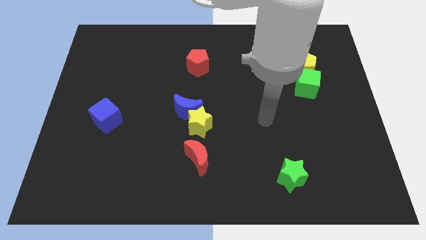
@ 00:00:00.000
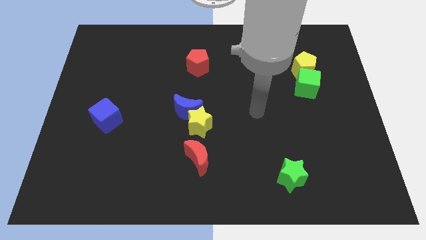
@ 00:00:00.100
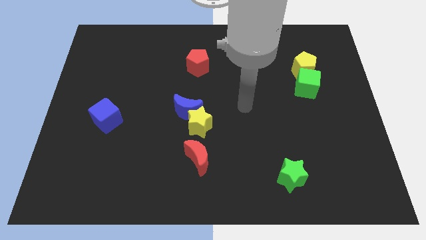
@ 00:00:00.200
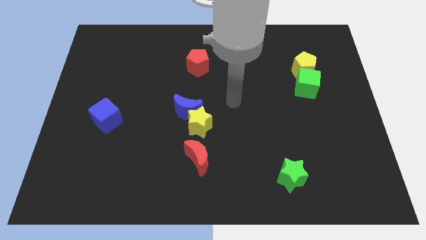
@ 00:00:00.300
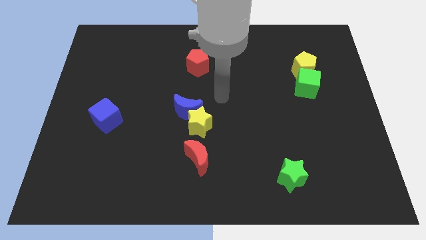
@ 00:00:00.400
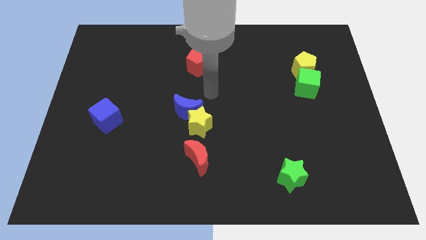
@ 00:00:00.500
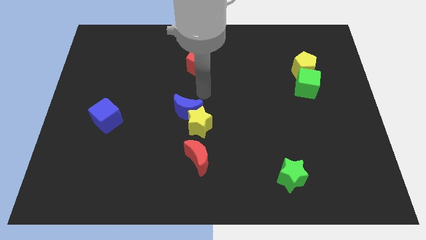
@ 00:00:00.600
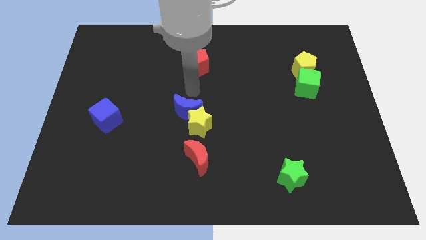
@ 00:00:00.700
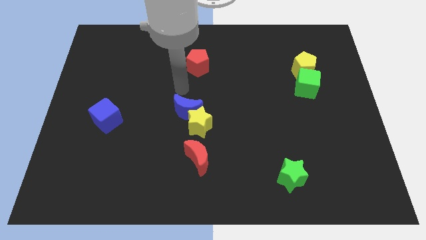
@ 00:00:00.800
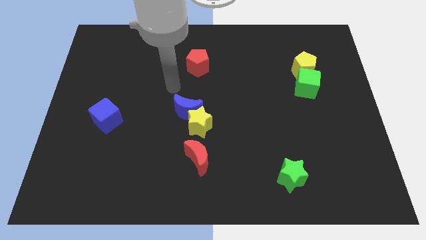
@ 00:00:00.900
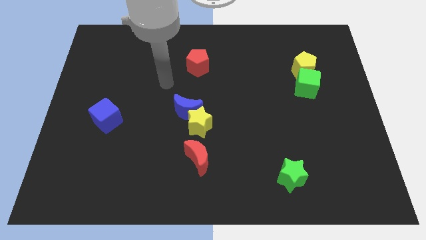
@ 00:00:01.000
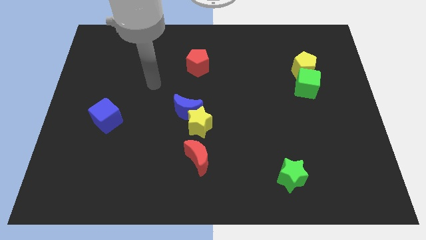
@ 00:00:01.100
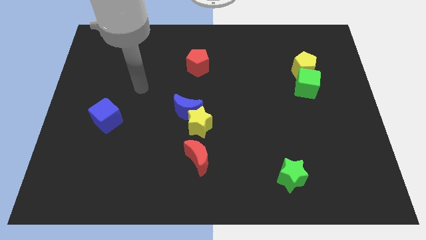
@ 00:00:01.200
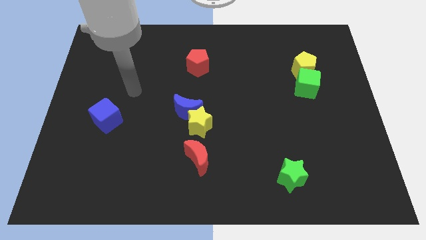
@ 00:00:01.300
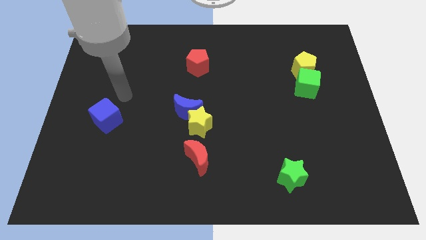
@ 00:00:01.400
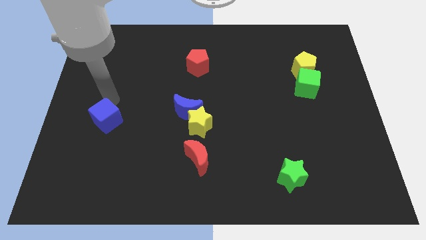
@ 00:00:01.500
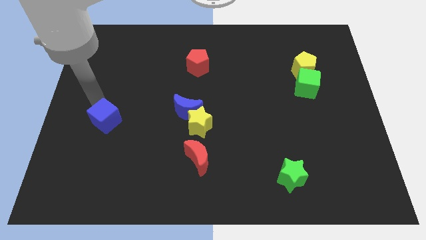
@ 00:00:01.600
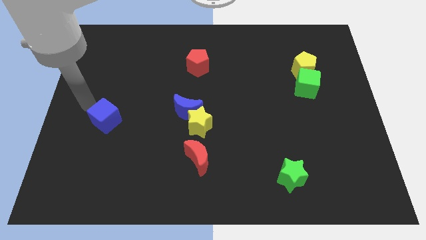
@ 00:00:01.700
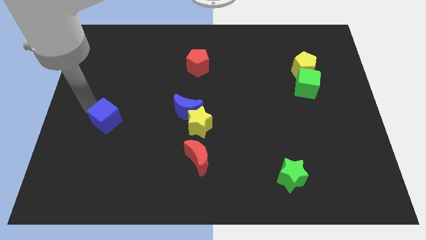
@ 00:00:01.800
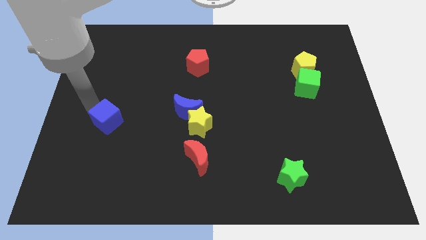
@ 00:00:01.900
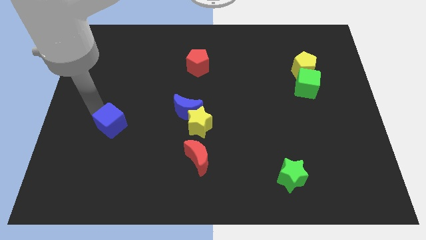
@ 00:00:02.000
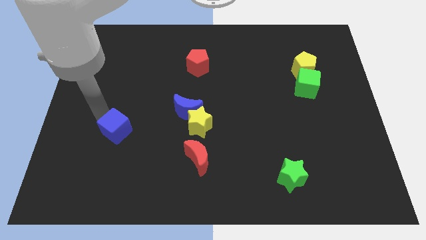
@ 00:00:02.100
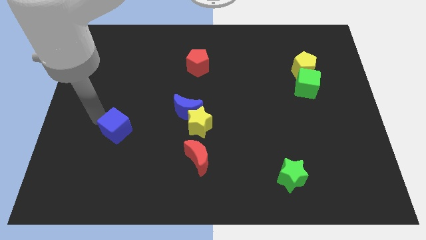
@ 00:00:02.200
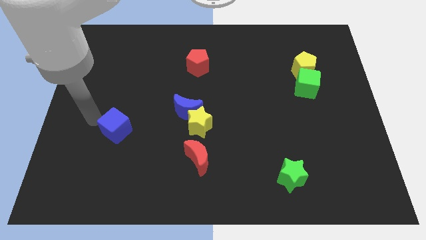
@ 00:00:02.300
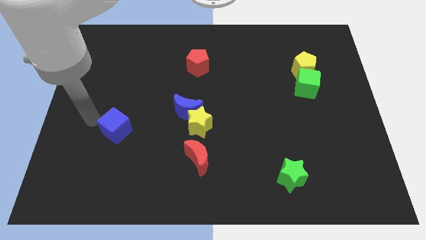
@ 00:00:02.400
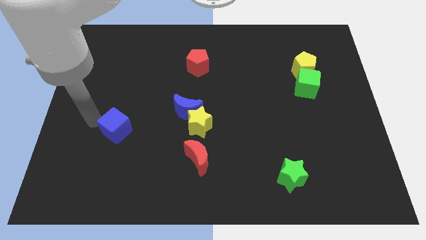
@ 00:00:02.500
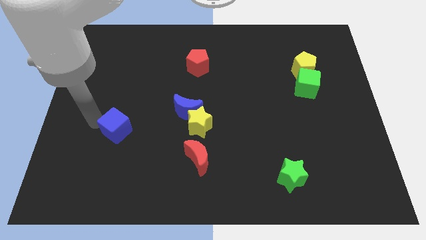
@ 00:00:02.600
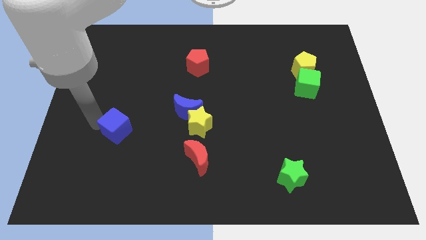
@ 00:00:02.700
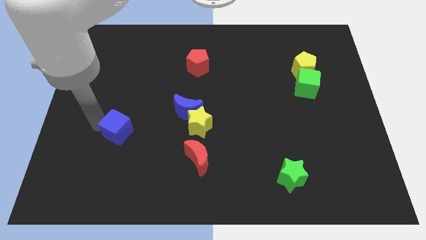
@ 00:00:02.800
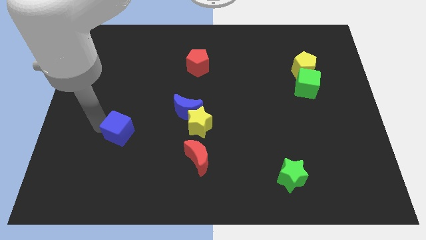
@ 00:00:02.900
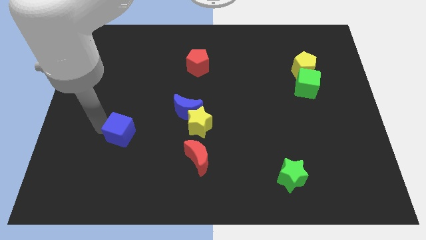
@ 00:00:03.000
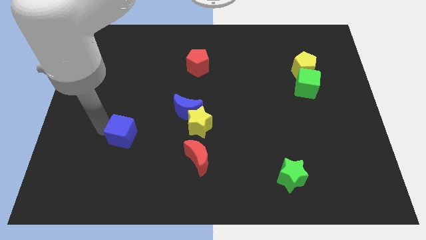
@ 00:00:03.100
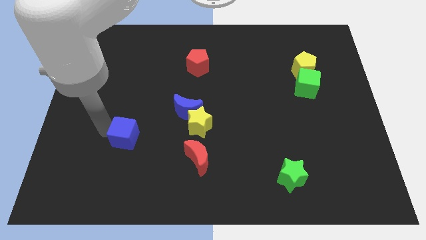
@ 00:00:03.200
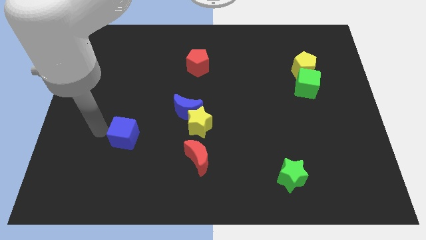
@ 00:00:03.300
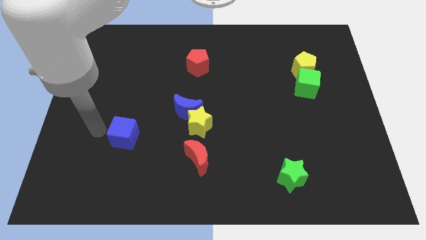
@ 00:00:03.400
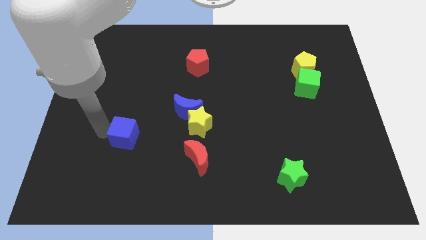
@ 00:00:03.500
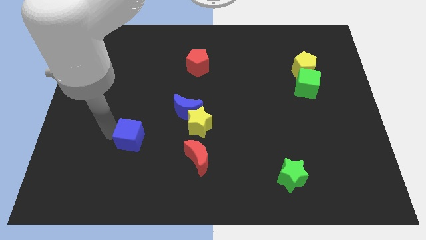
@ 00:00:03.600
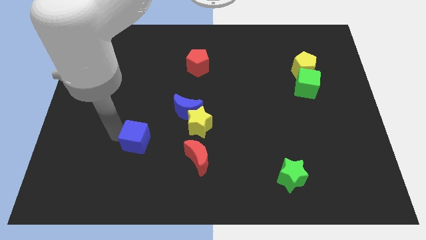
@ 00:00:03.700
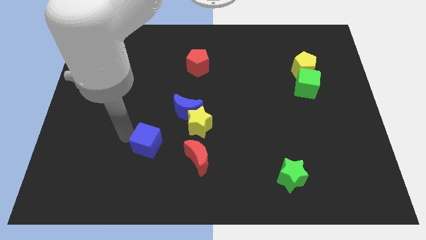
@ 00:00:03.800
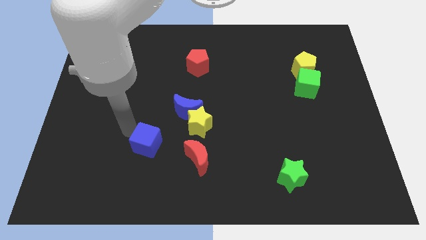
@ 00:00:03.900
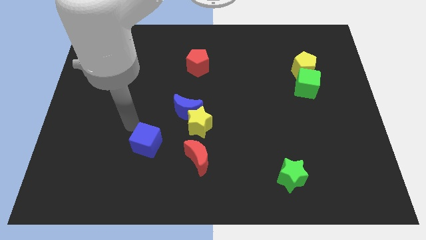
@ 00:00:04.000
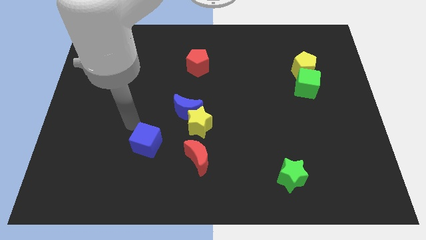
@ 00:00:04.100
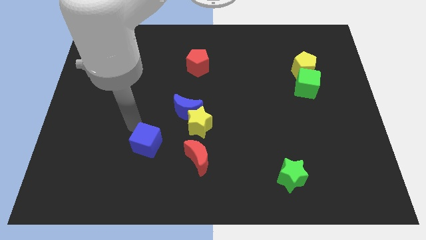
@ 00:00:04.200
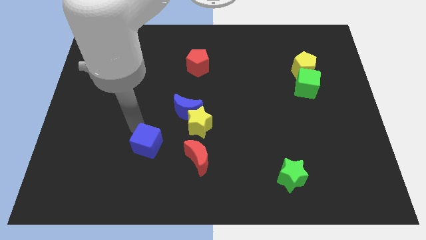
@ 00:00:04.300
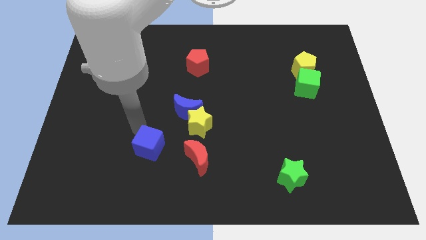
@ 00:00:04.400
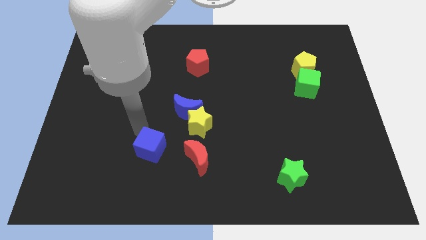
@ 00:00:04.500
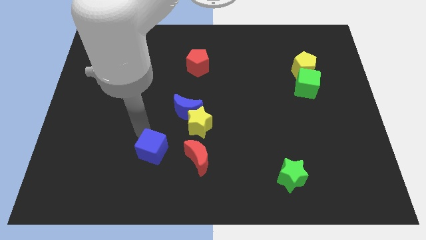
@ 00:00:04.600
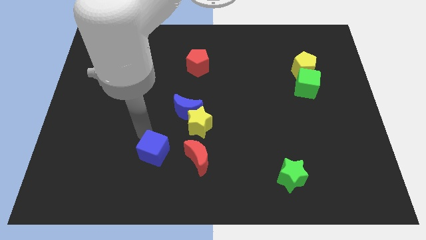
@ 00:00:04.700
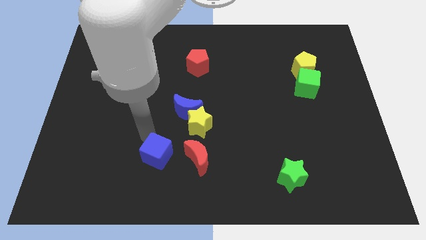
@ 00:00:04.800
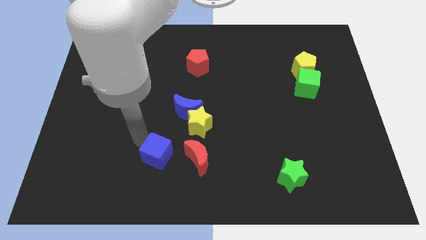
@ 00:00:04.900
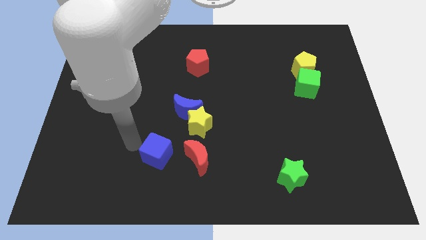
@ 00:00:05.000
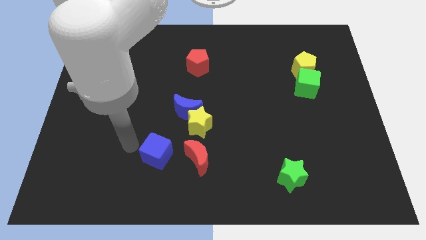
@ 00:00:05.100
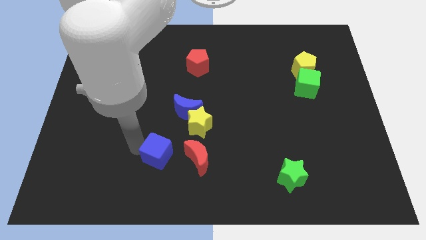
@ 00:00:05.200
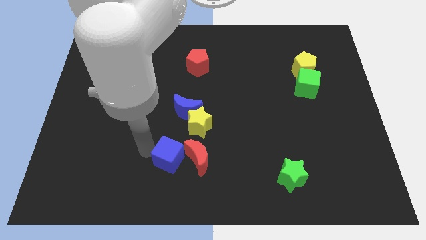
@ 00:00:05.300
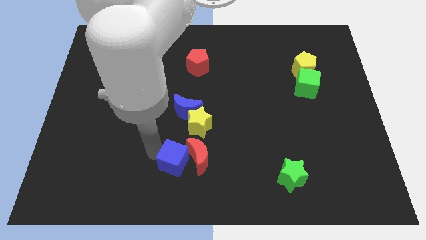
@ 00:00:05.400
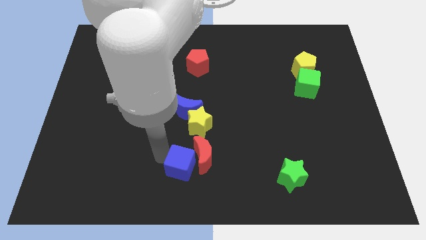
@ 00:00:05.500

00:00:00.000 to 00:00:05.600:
move the blue cube to the bottom of the yellow star

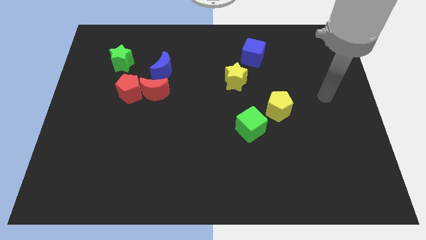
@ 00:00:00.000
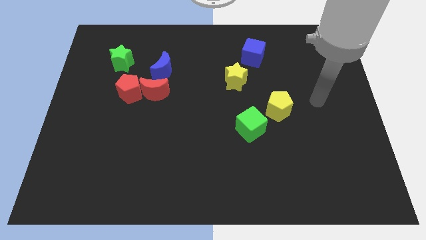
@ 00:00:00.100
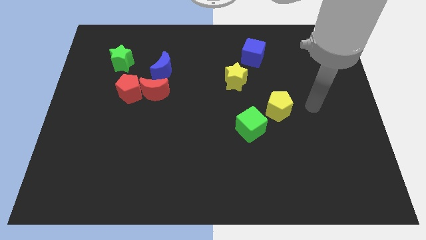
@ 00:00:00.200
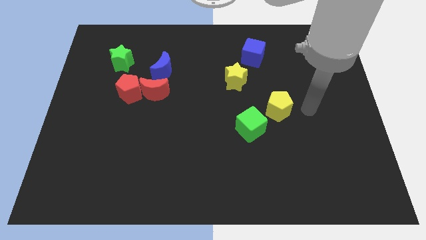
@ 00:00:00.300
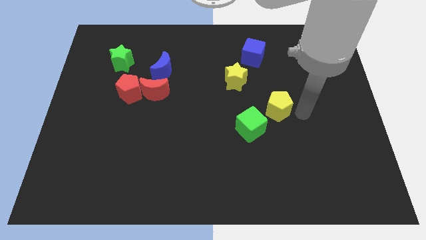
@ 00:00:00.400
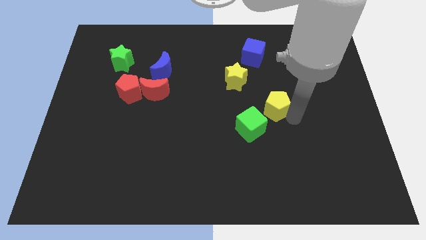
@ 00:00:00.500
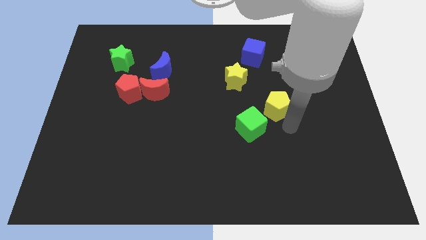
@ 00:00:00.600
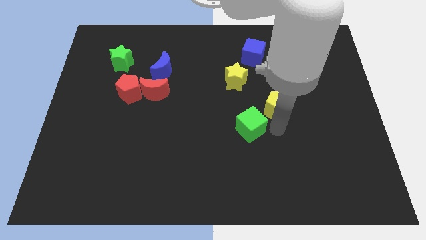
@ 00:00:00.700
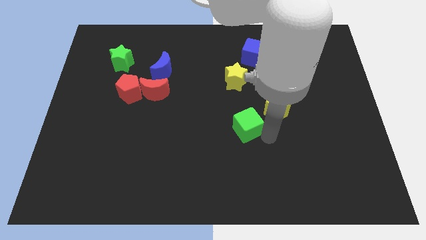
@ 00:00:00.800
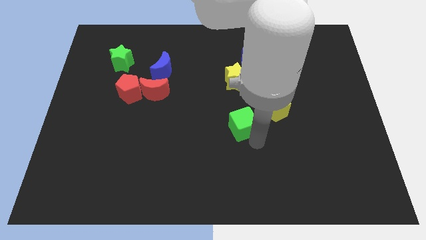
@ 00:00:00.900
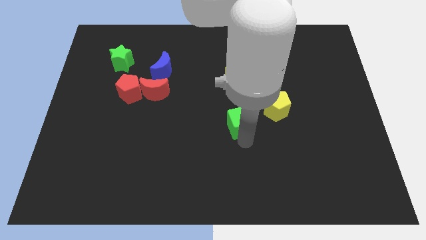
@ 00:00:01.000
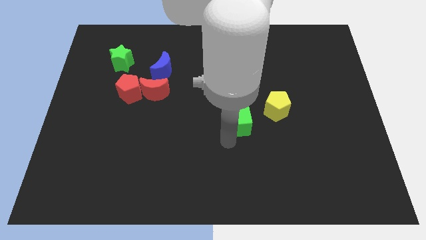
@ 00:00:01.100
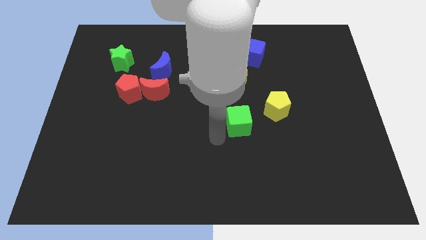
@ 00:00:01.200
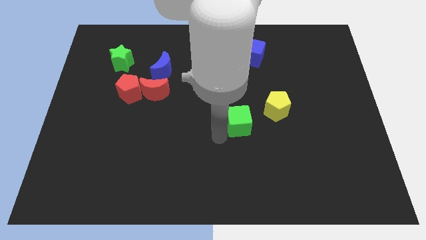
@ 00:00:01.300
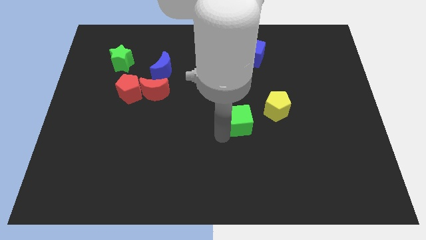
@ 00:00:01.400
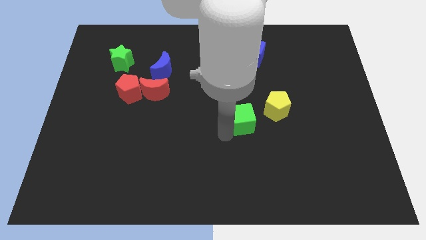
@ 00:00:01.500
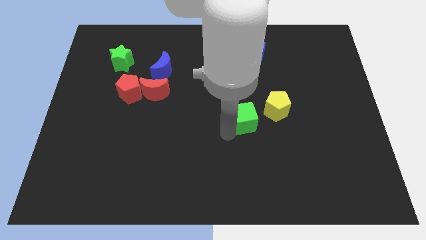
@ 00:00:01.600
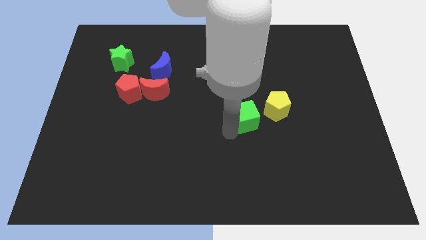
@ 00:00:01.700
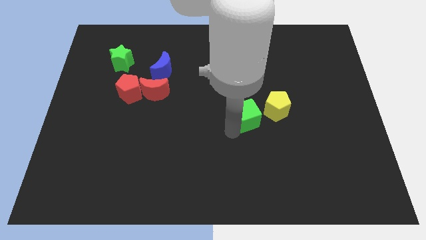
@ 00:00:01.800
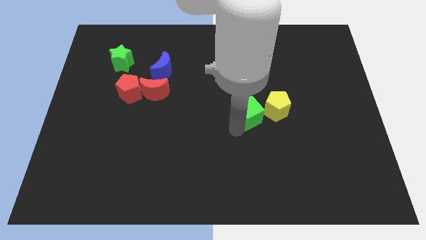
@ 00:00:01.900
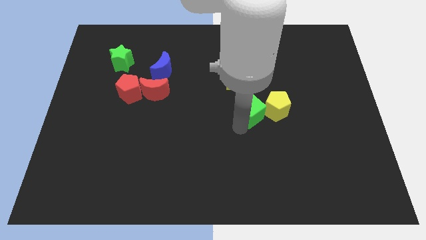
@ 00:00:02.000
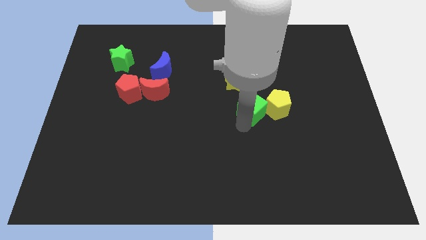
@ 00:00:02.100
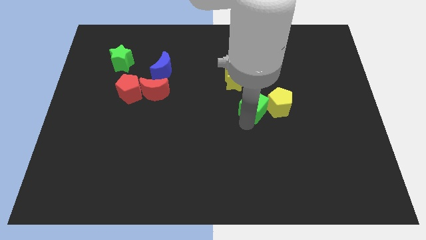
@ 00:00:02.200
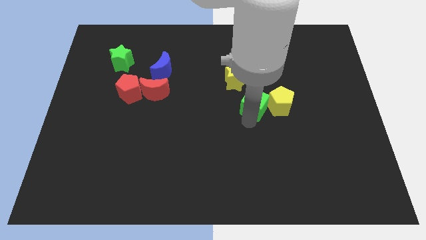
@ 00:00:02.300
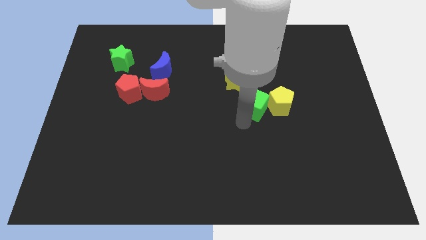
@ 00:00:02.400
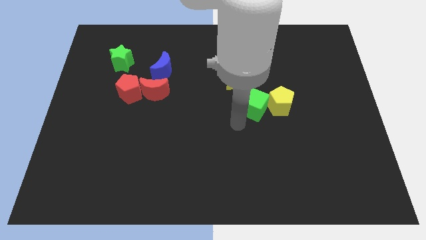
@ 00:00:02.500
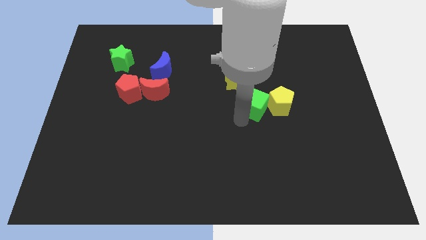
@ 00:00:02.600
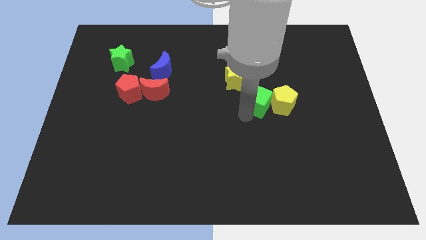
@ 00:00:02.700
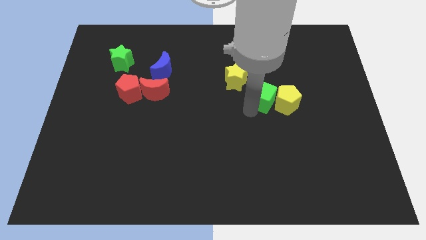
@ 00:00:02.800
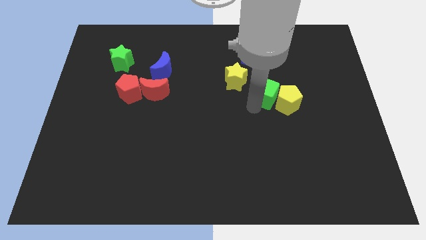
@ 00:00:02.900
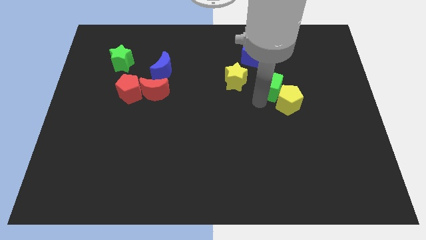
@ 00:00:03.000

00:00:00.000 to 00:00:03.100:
push the green cube to the top side of the yellow pentagon
